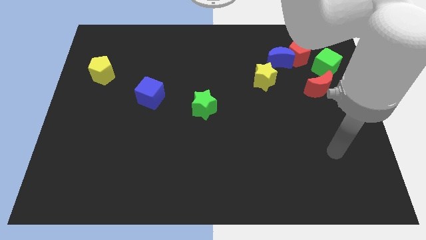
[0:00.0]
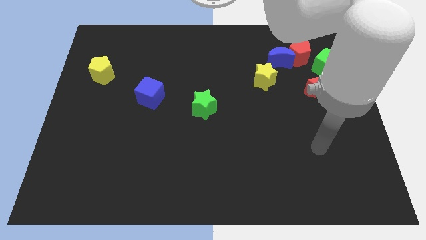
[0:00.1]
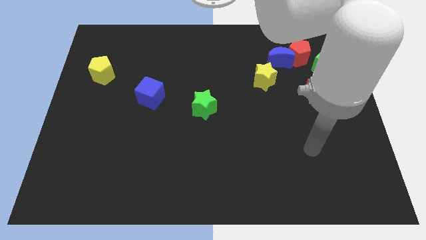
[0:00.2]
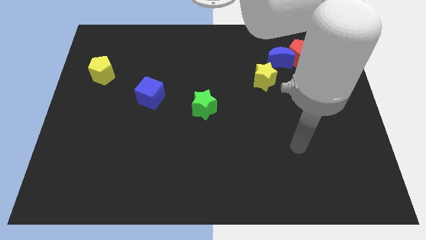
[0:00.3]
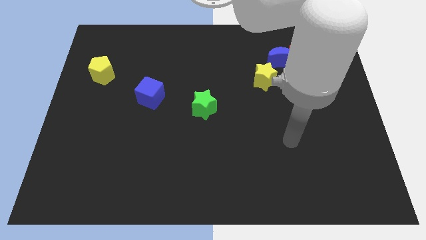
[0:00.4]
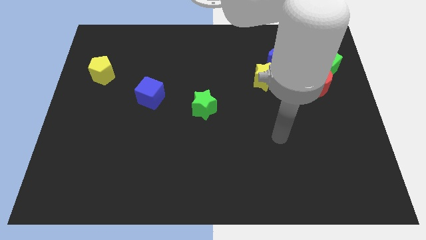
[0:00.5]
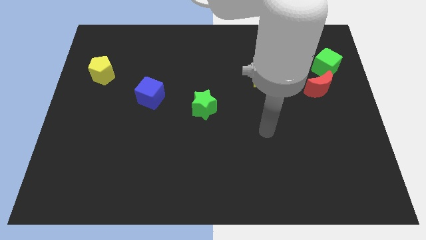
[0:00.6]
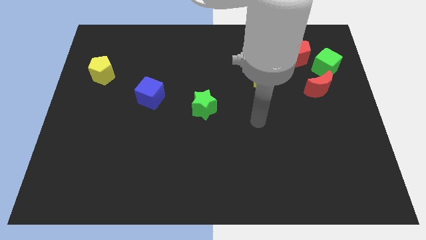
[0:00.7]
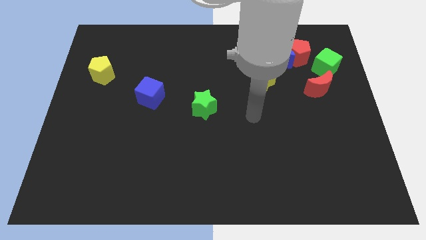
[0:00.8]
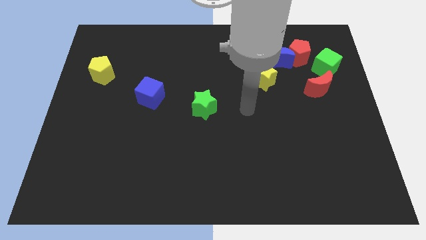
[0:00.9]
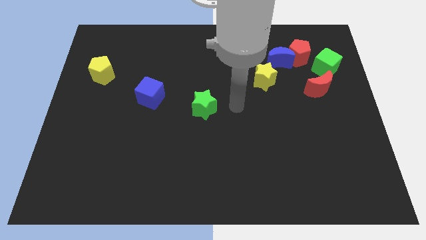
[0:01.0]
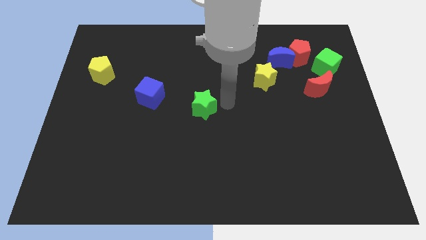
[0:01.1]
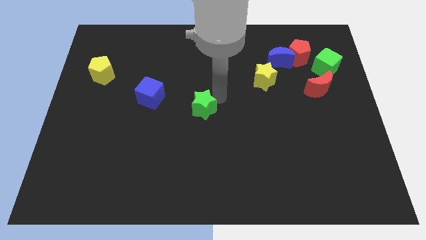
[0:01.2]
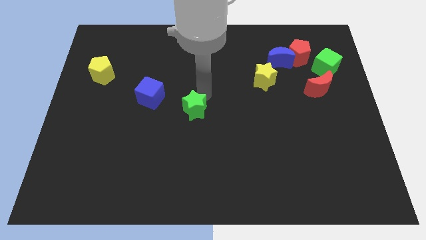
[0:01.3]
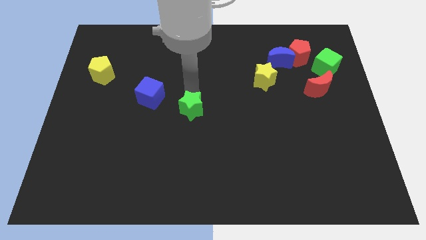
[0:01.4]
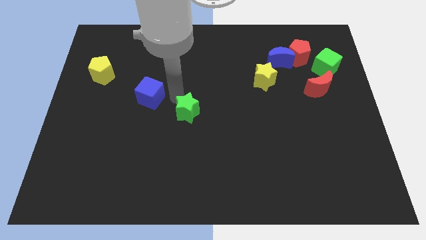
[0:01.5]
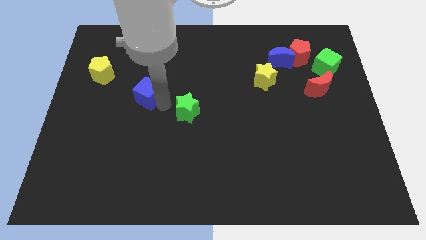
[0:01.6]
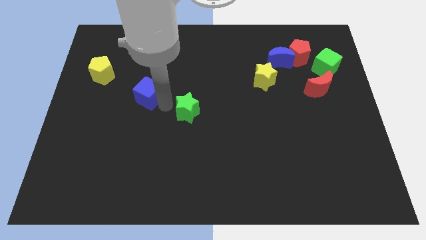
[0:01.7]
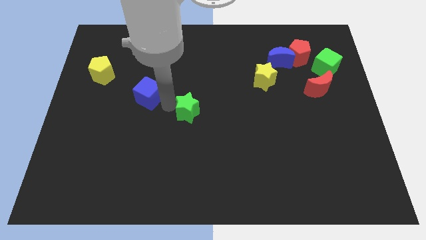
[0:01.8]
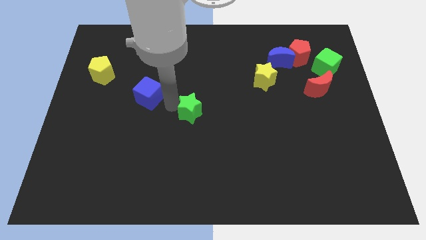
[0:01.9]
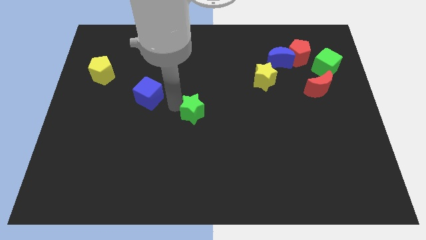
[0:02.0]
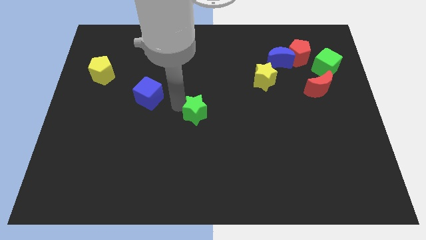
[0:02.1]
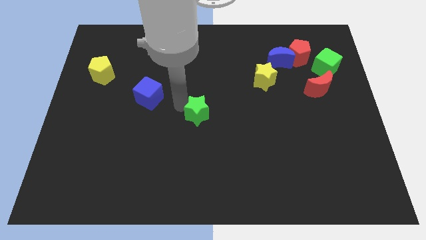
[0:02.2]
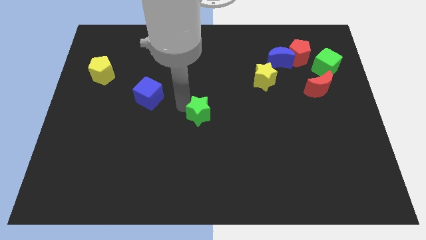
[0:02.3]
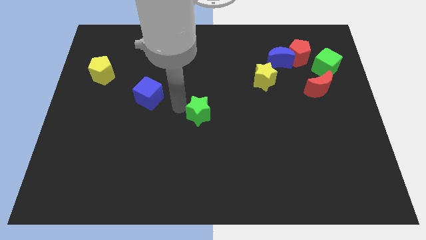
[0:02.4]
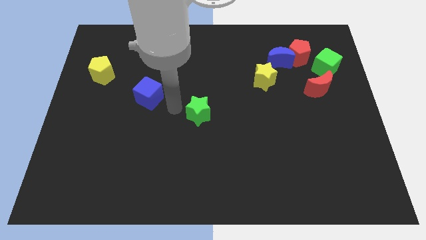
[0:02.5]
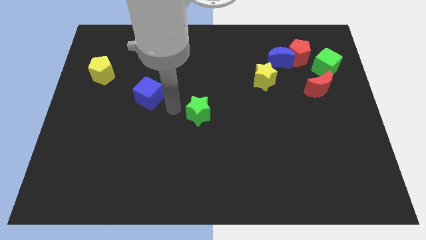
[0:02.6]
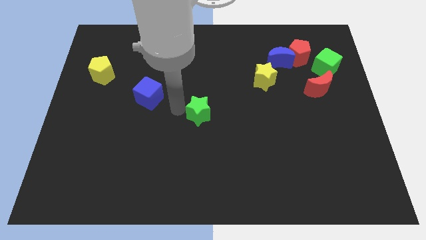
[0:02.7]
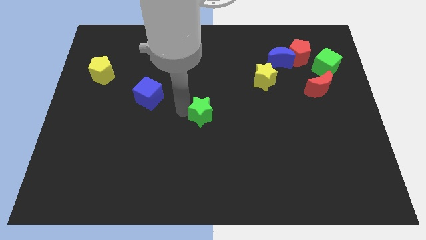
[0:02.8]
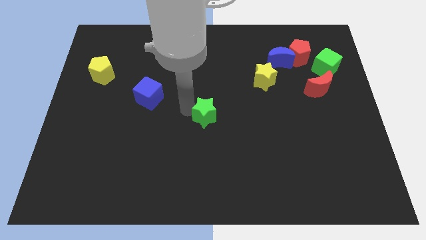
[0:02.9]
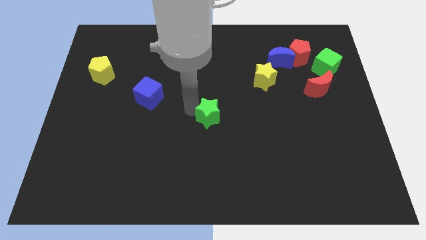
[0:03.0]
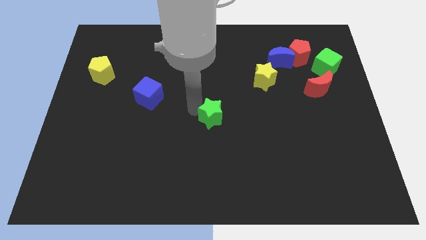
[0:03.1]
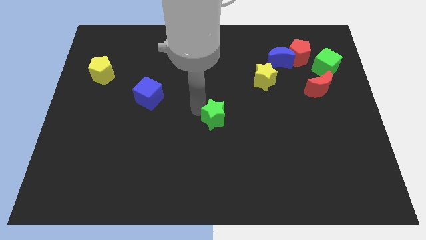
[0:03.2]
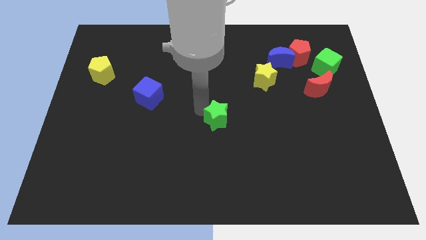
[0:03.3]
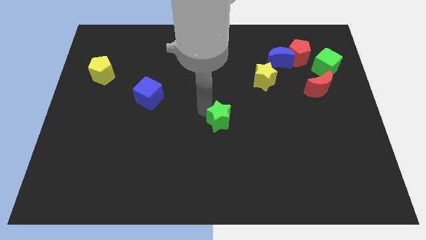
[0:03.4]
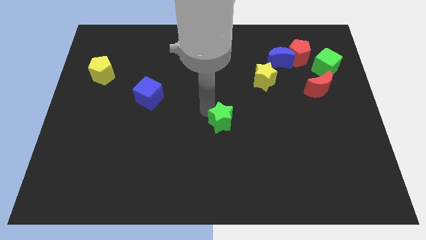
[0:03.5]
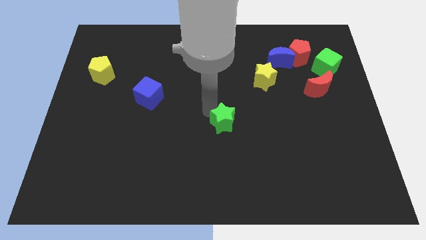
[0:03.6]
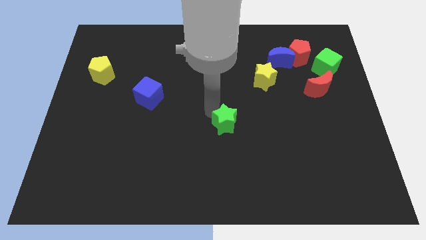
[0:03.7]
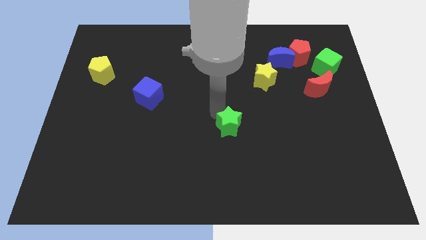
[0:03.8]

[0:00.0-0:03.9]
slide the green star down and then right slightly

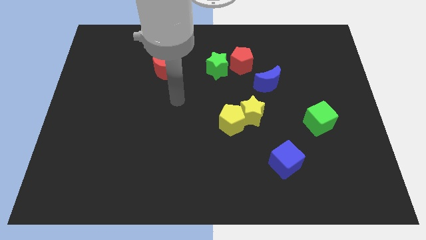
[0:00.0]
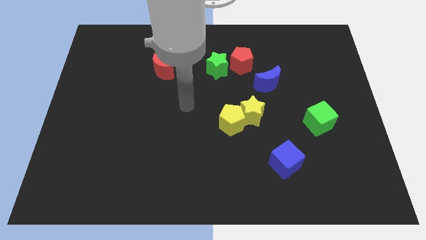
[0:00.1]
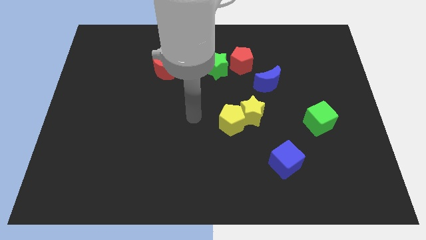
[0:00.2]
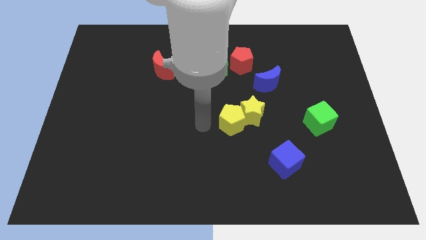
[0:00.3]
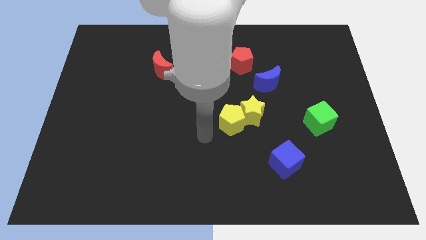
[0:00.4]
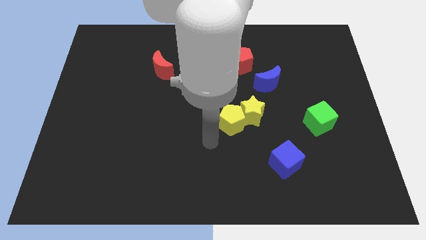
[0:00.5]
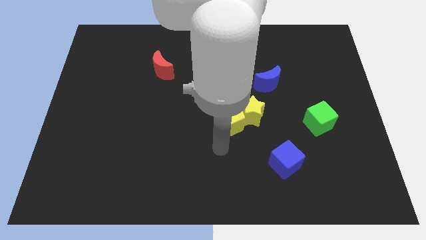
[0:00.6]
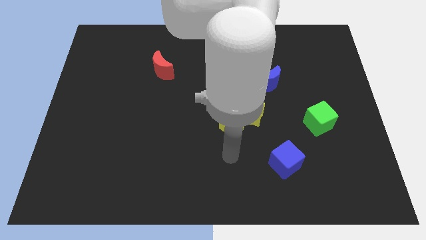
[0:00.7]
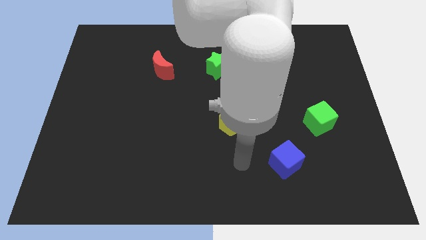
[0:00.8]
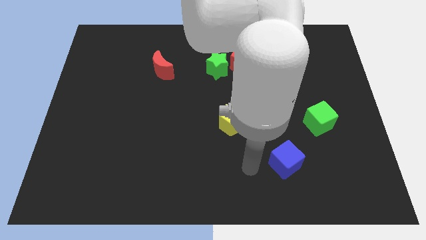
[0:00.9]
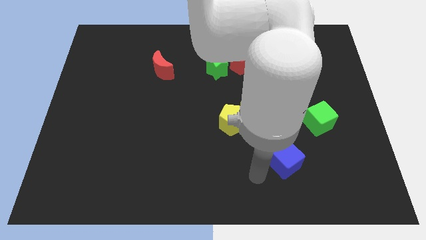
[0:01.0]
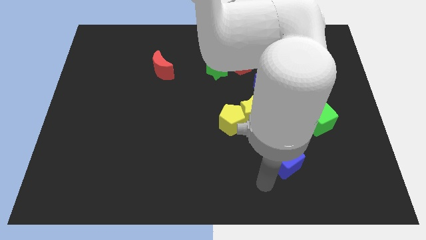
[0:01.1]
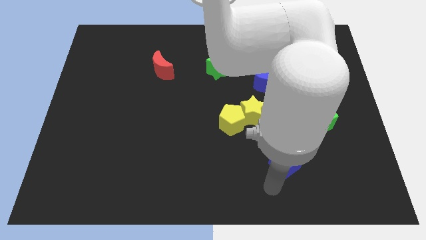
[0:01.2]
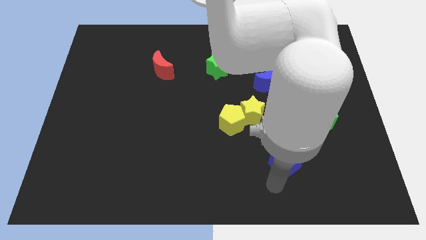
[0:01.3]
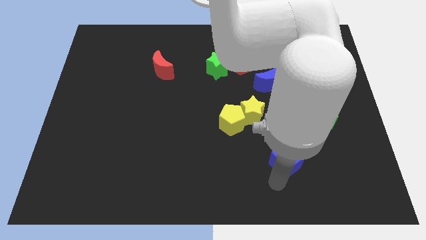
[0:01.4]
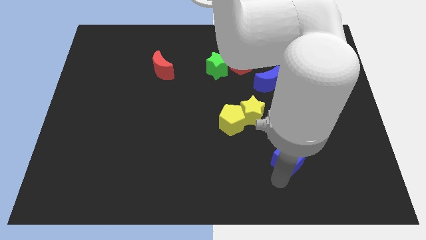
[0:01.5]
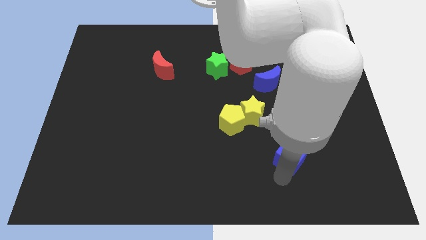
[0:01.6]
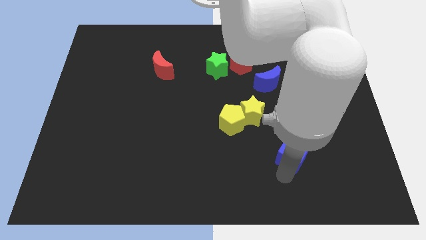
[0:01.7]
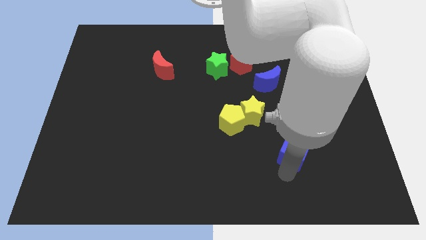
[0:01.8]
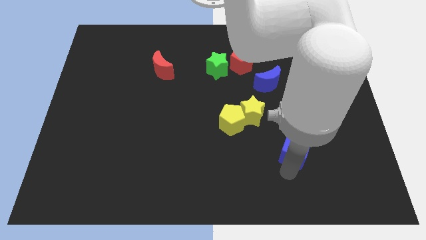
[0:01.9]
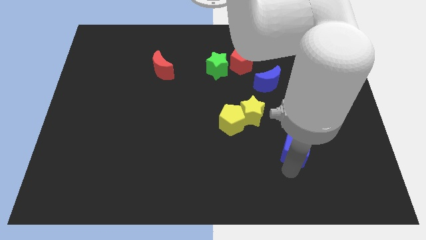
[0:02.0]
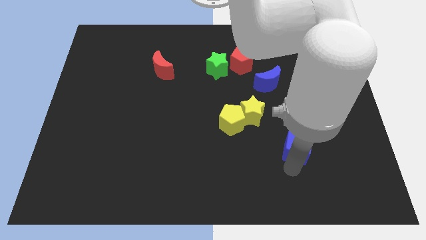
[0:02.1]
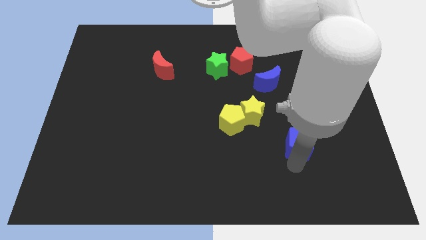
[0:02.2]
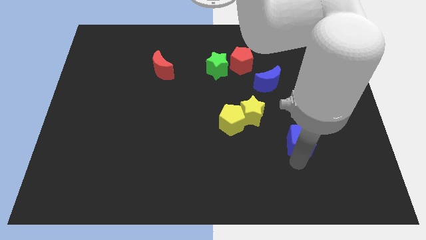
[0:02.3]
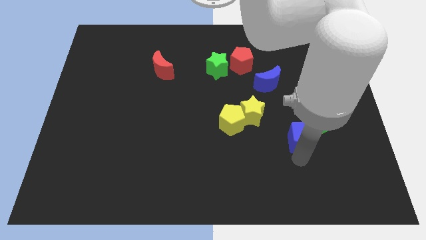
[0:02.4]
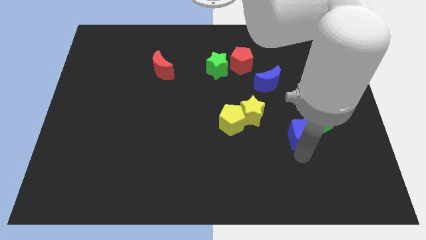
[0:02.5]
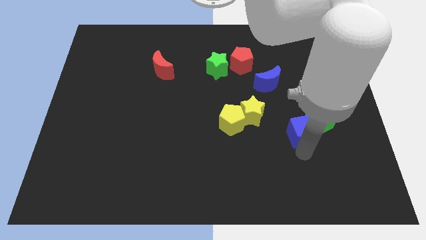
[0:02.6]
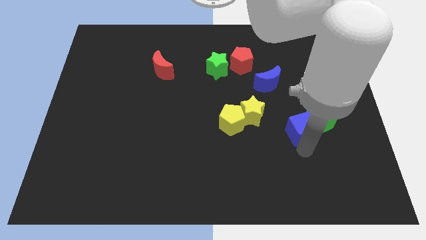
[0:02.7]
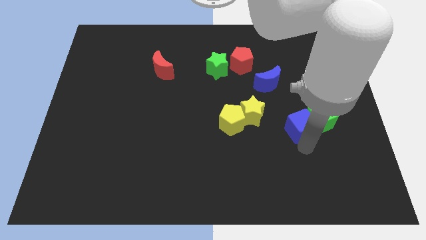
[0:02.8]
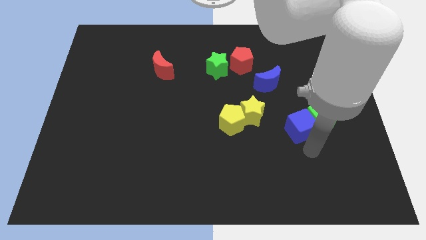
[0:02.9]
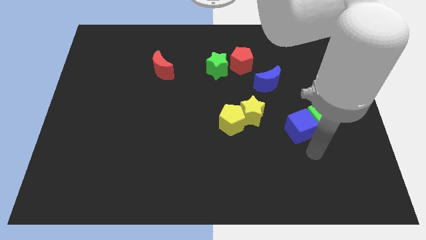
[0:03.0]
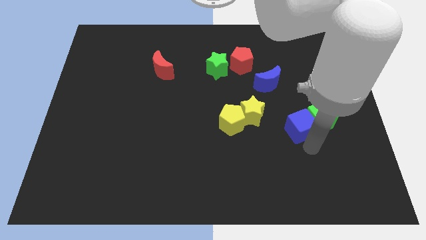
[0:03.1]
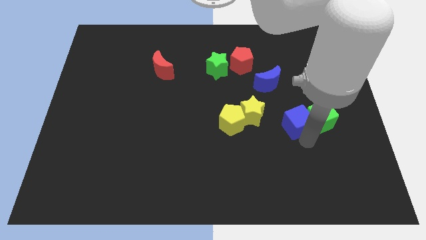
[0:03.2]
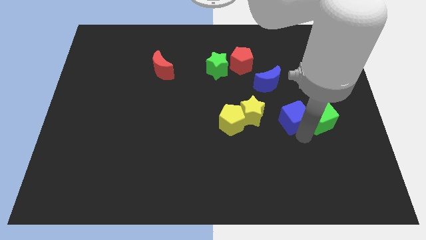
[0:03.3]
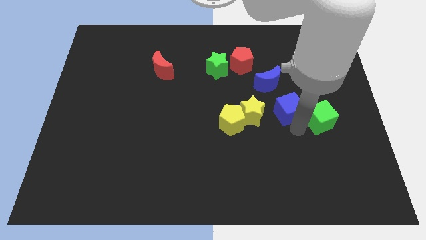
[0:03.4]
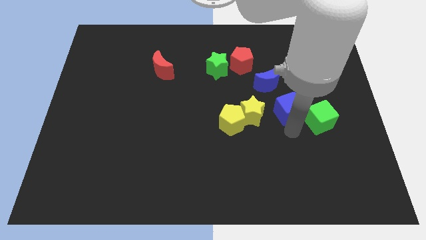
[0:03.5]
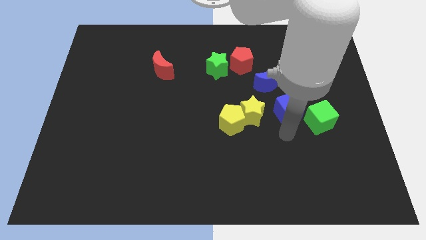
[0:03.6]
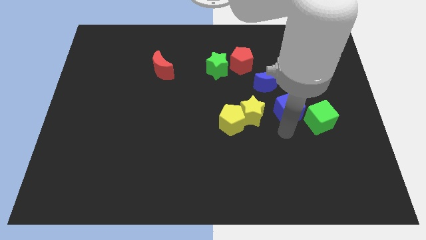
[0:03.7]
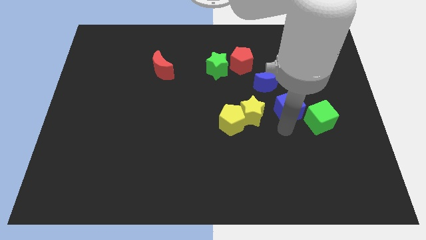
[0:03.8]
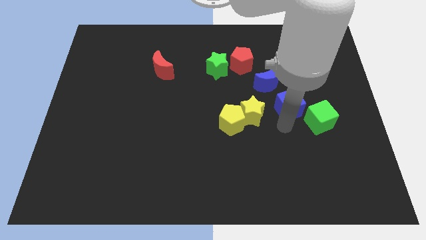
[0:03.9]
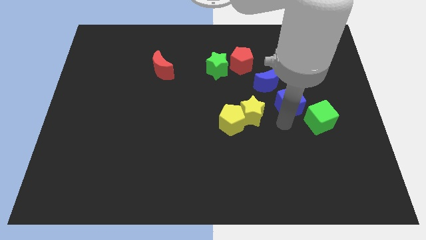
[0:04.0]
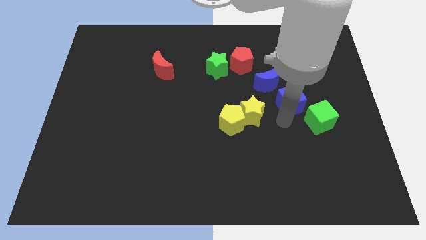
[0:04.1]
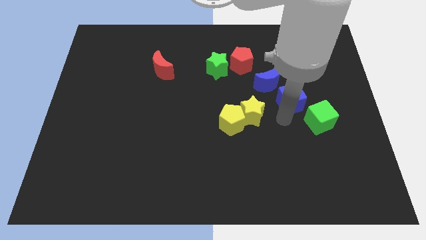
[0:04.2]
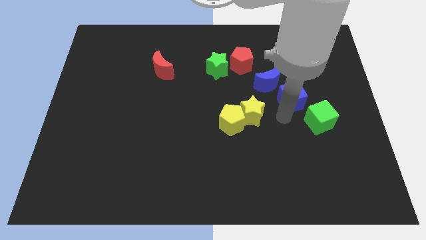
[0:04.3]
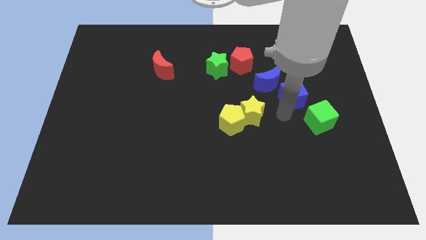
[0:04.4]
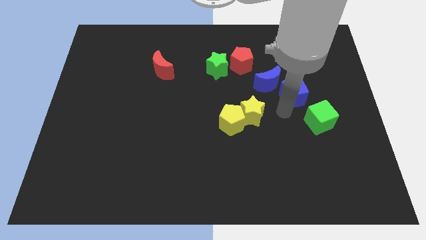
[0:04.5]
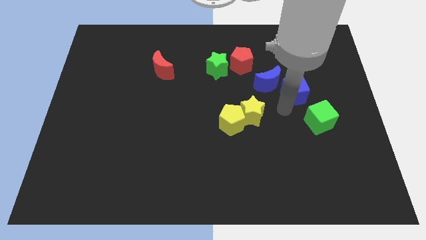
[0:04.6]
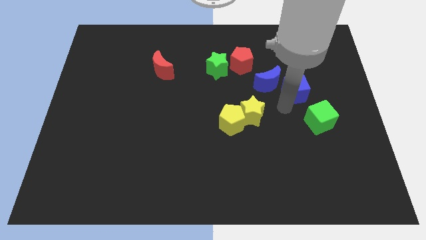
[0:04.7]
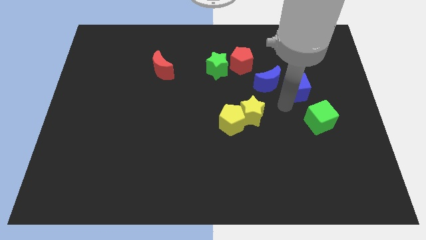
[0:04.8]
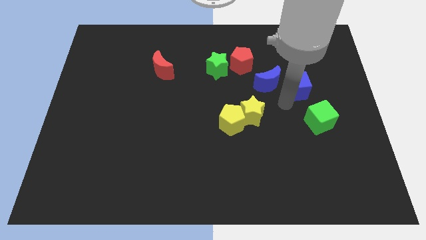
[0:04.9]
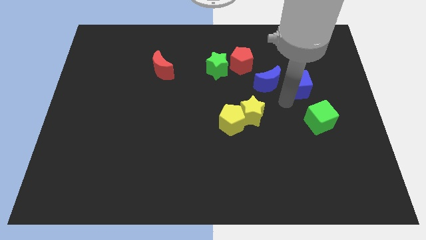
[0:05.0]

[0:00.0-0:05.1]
move the blue cube upwards
